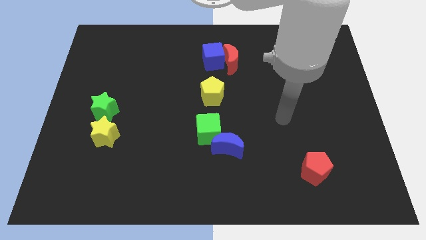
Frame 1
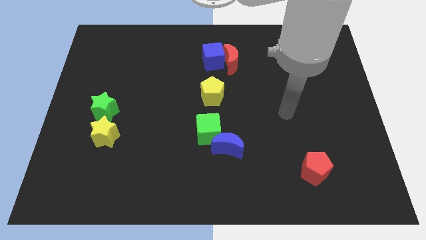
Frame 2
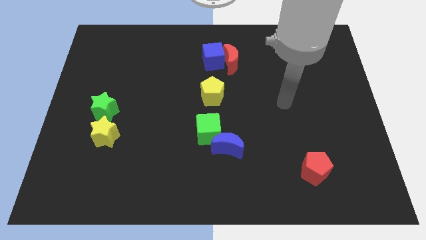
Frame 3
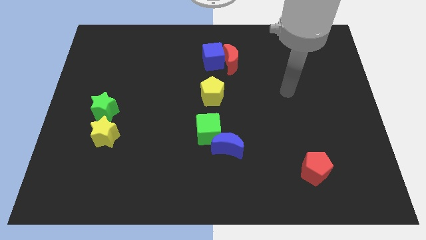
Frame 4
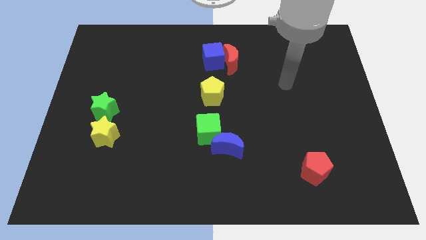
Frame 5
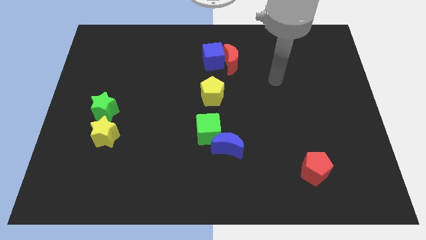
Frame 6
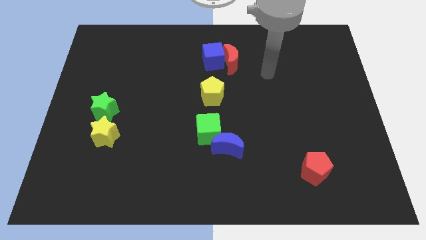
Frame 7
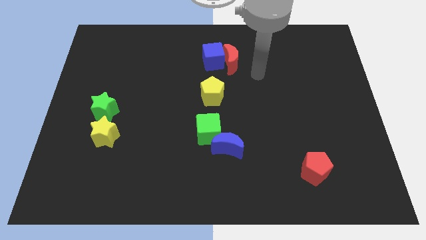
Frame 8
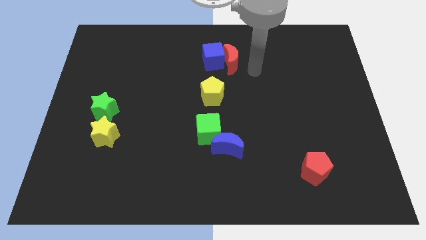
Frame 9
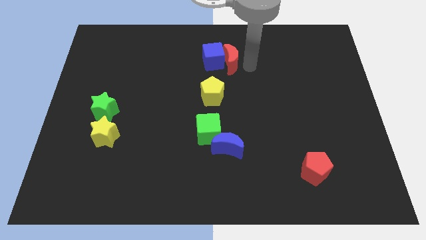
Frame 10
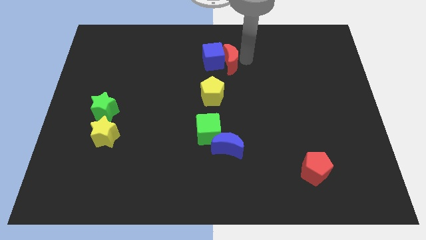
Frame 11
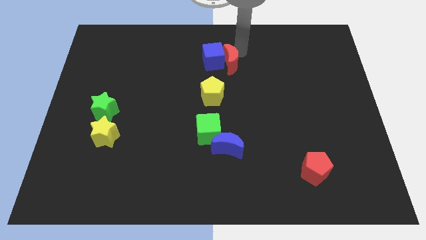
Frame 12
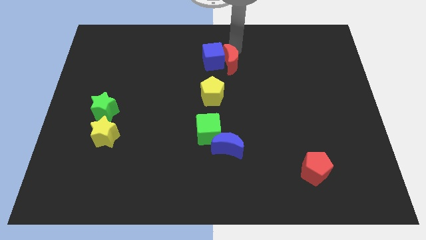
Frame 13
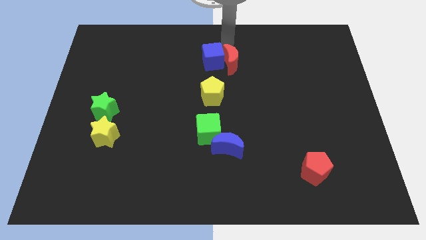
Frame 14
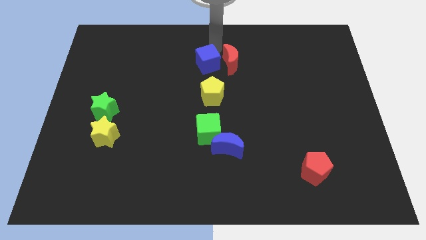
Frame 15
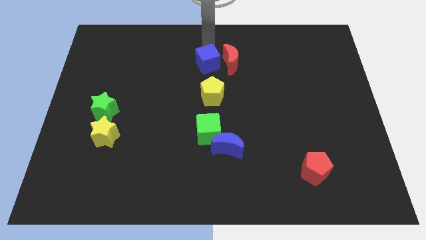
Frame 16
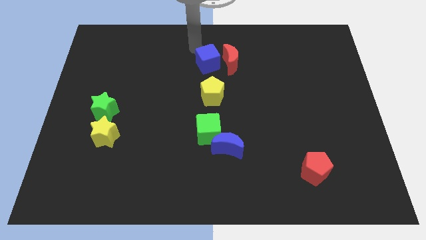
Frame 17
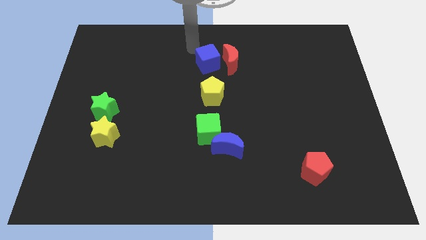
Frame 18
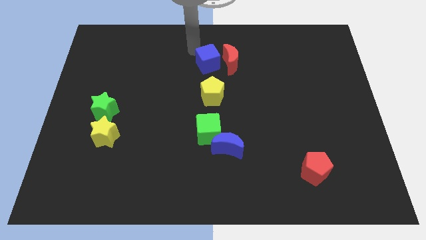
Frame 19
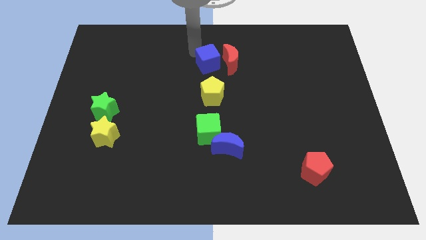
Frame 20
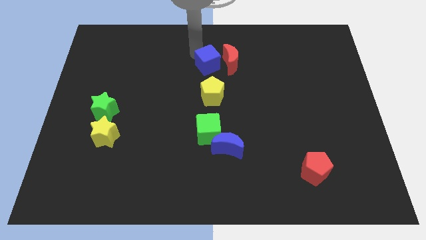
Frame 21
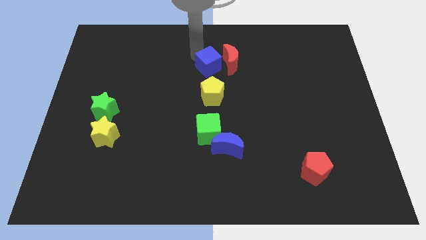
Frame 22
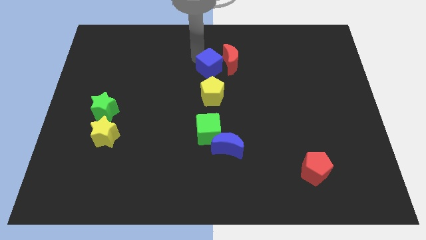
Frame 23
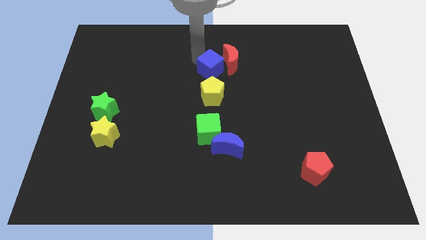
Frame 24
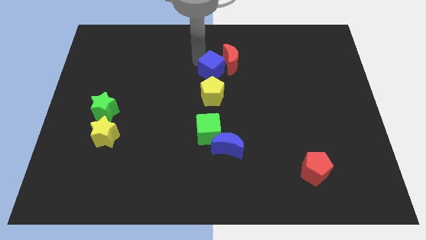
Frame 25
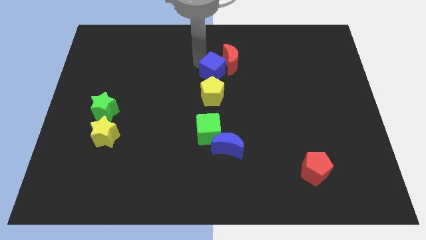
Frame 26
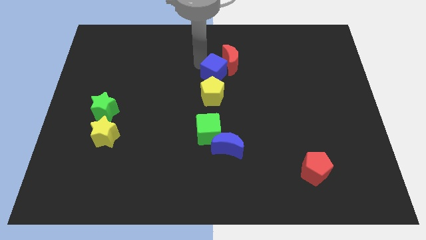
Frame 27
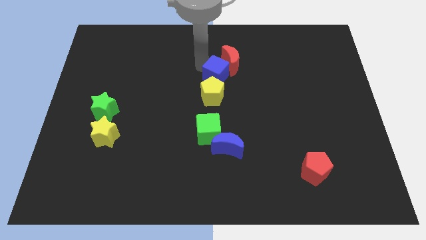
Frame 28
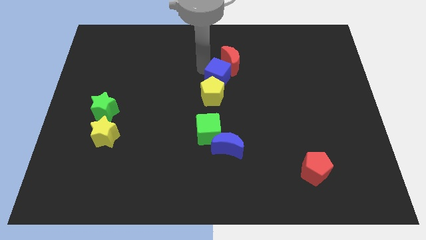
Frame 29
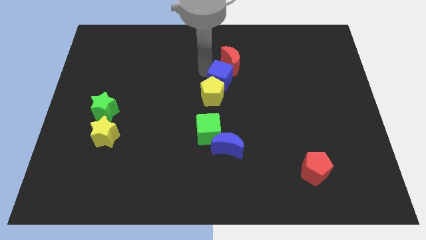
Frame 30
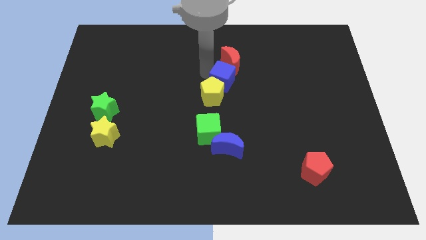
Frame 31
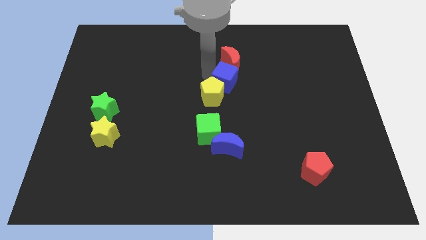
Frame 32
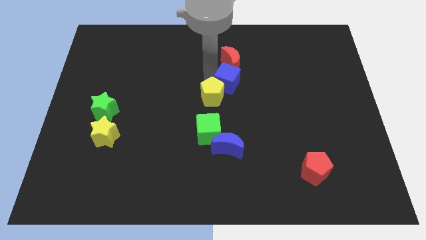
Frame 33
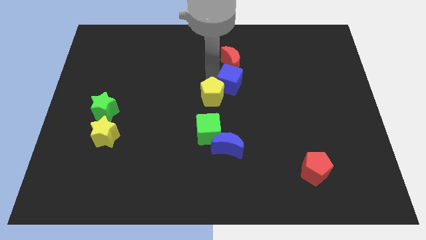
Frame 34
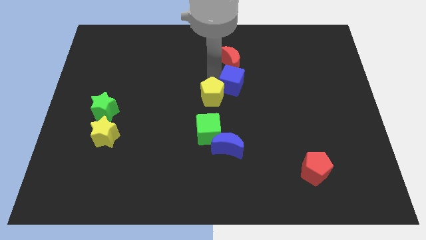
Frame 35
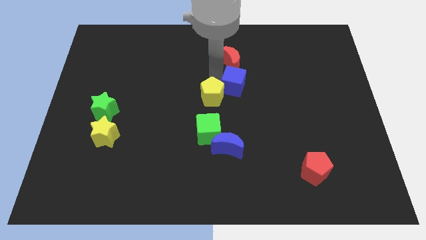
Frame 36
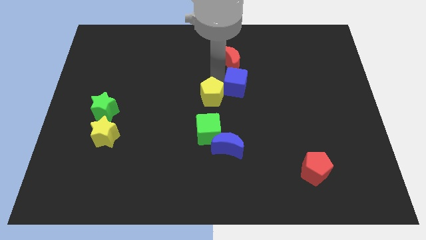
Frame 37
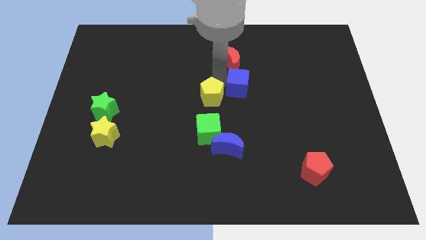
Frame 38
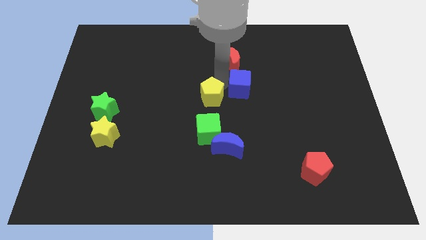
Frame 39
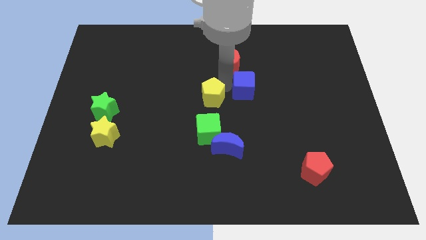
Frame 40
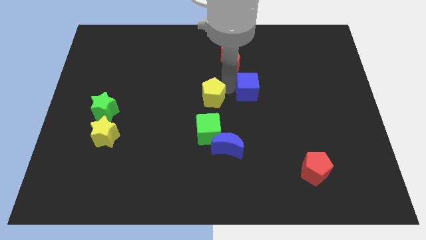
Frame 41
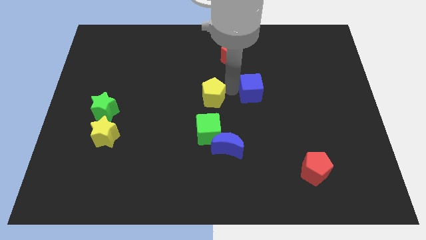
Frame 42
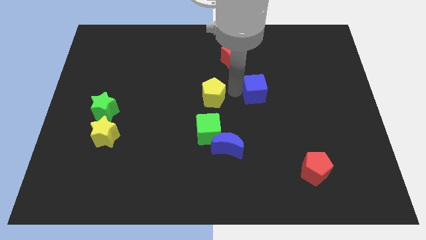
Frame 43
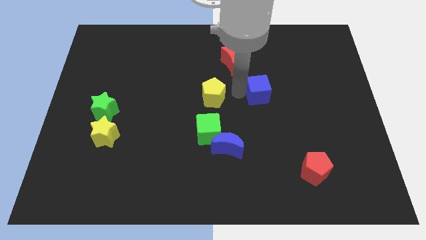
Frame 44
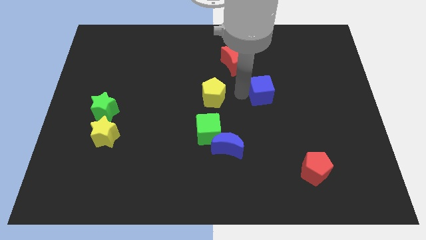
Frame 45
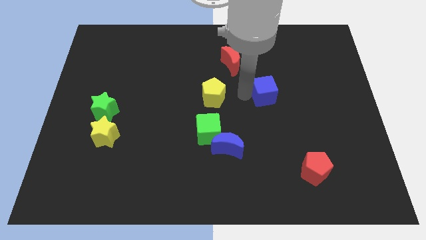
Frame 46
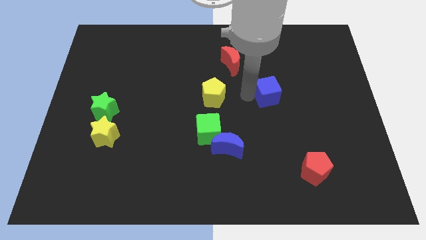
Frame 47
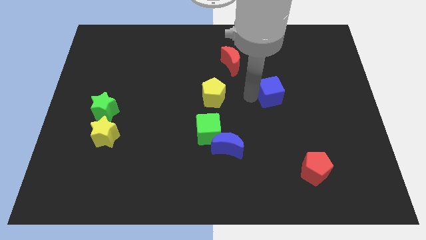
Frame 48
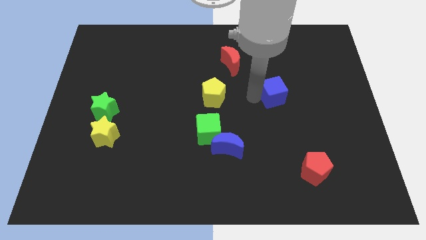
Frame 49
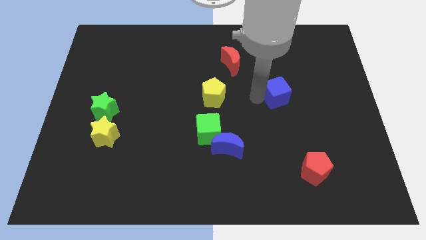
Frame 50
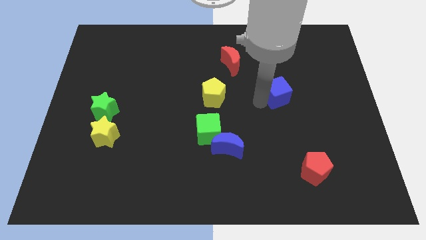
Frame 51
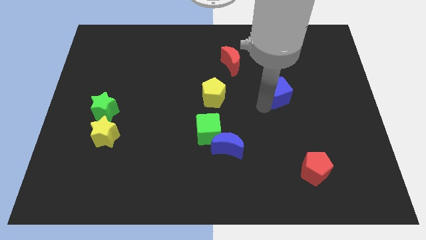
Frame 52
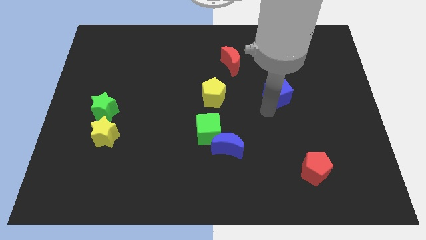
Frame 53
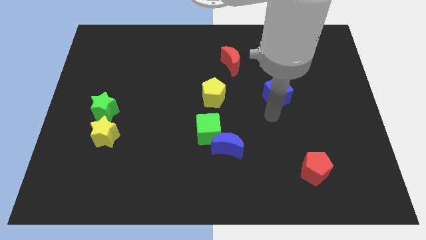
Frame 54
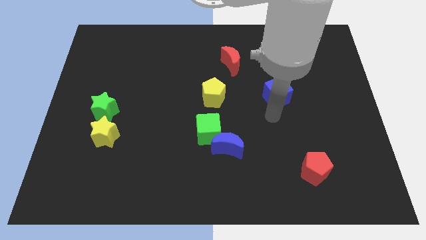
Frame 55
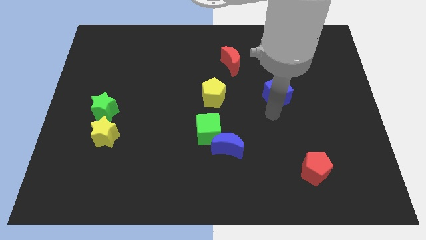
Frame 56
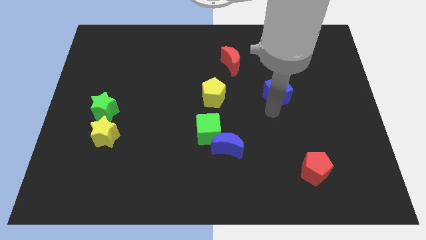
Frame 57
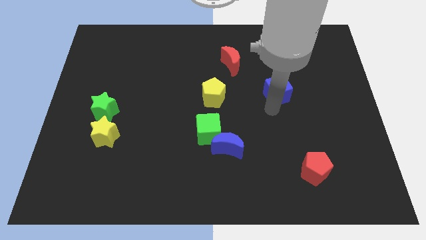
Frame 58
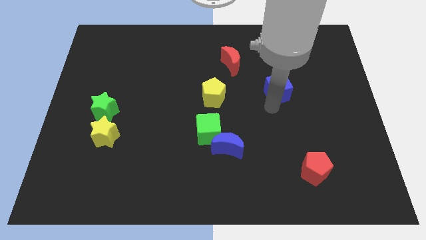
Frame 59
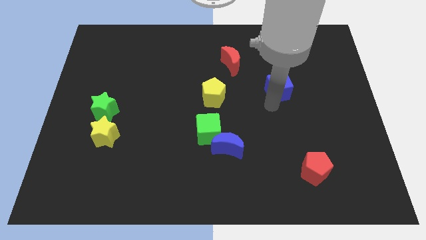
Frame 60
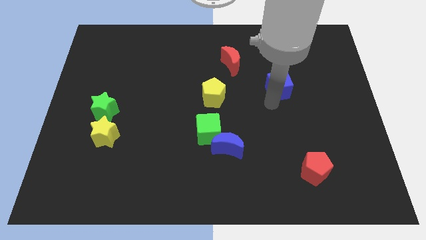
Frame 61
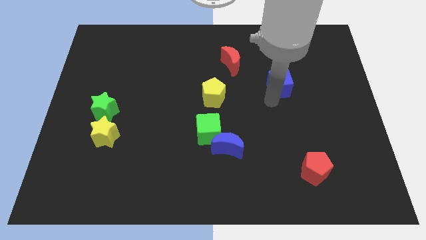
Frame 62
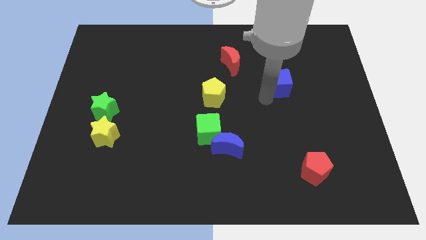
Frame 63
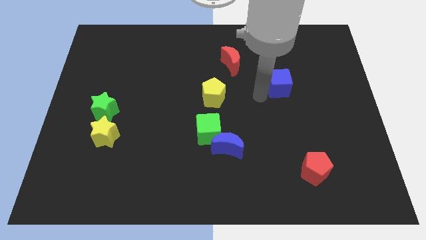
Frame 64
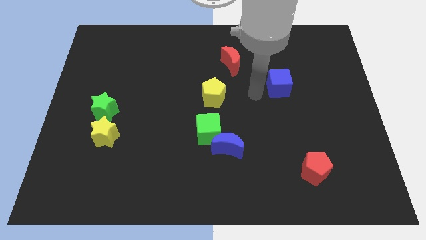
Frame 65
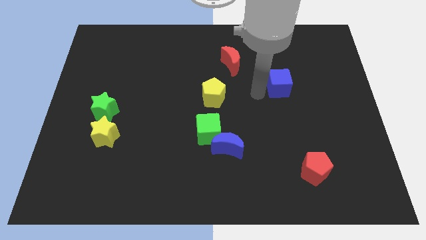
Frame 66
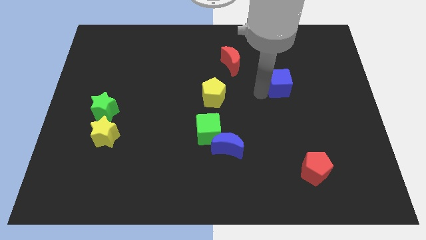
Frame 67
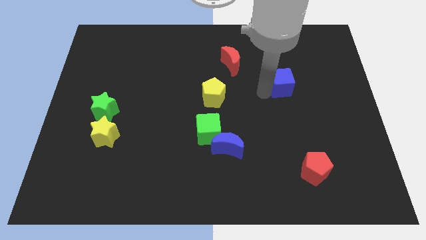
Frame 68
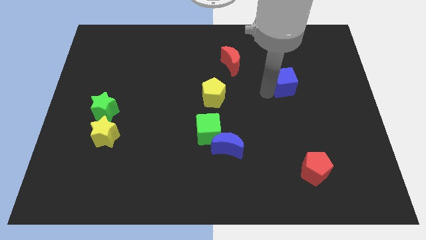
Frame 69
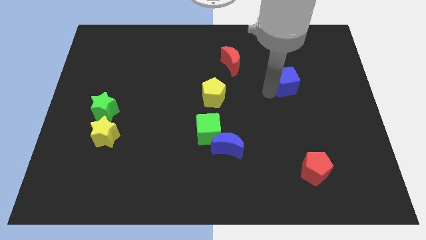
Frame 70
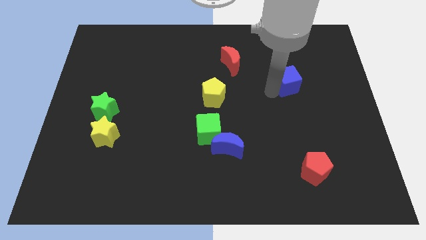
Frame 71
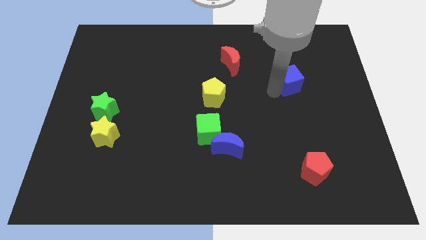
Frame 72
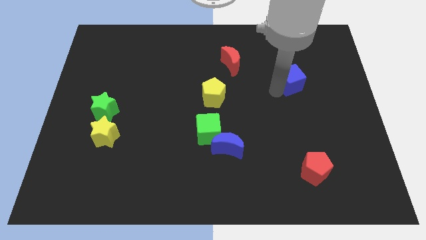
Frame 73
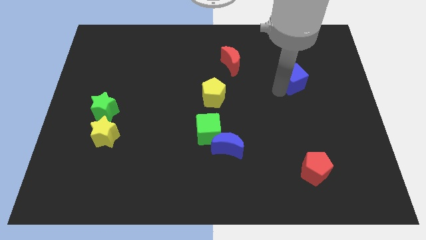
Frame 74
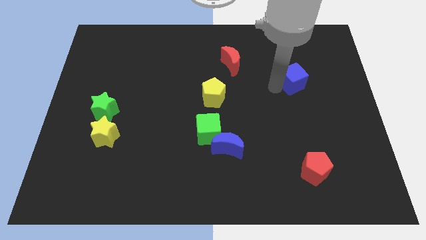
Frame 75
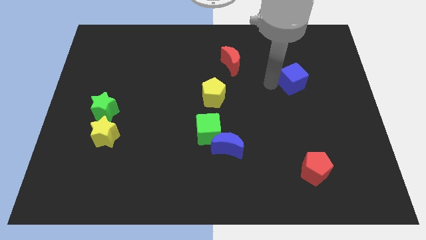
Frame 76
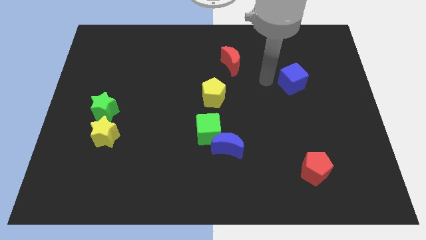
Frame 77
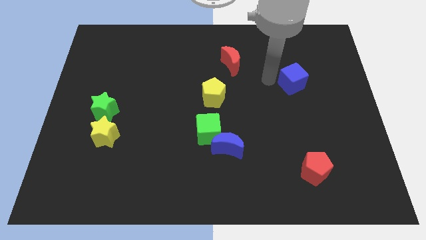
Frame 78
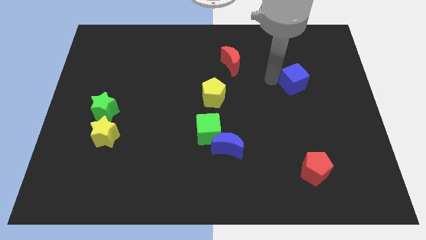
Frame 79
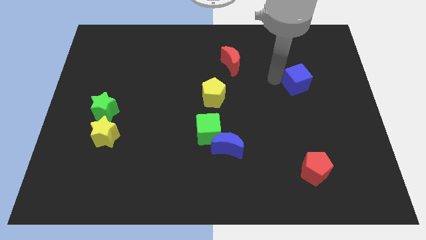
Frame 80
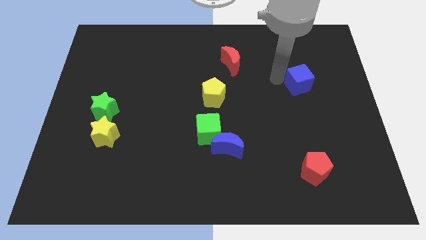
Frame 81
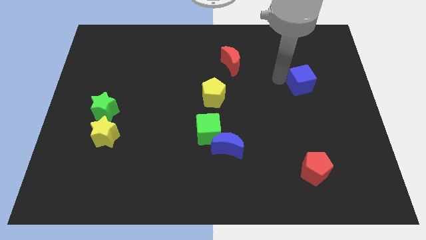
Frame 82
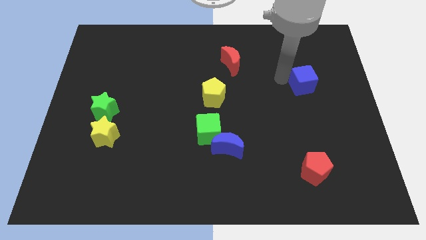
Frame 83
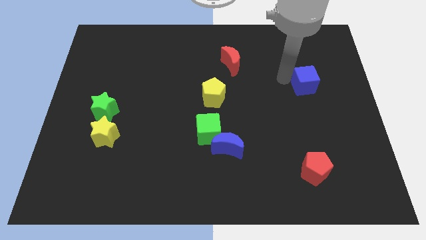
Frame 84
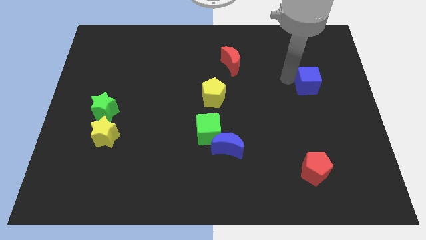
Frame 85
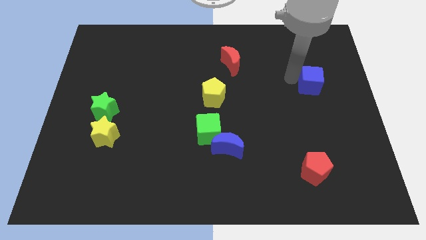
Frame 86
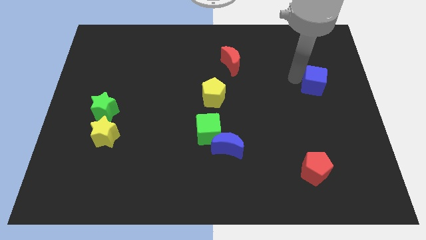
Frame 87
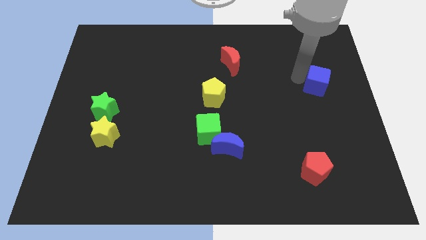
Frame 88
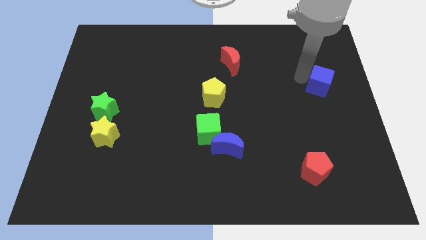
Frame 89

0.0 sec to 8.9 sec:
slide the blue cube to the right side of the board
